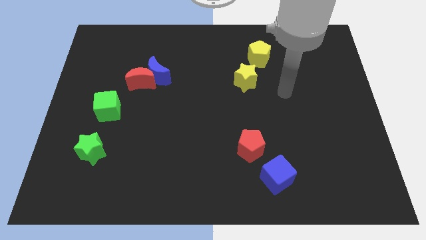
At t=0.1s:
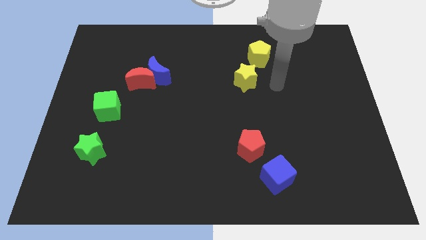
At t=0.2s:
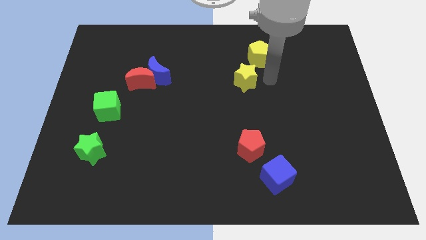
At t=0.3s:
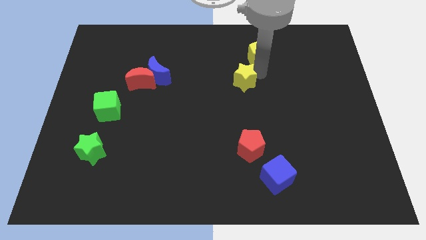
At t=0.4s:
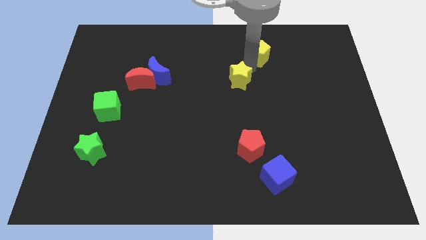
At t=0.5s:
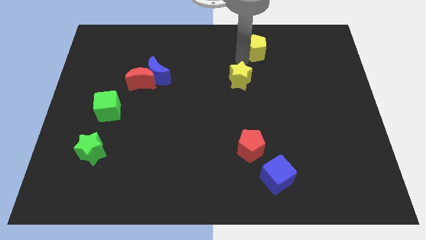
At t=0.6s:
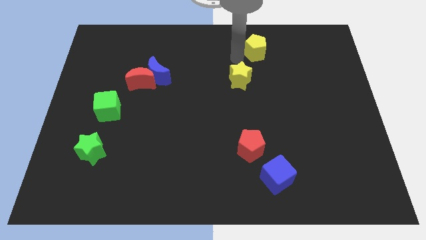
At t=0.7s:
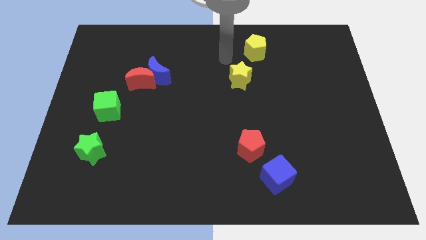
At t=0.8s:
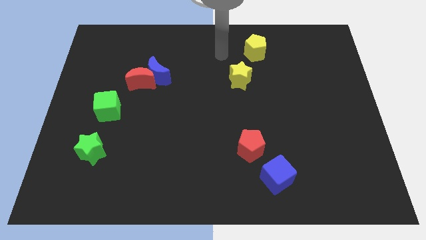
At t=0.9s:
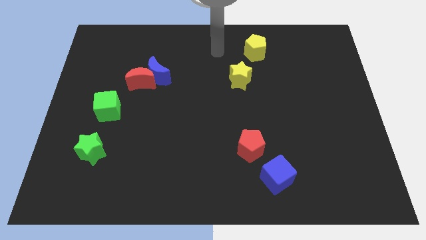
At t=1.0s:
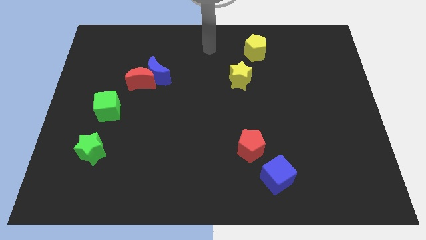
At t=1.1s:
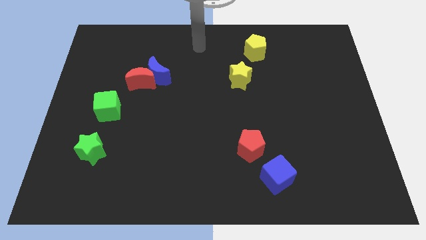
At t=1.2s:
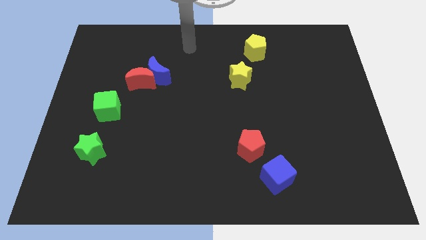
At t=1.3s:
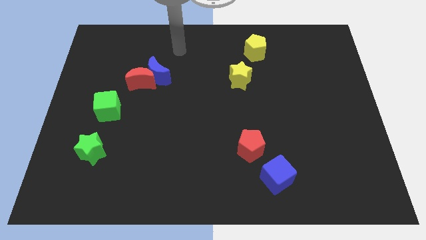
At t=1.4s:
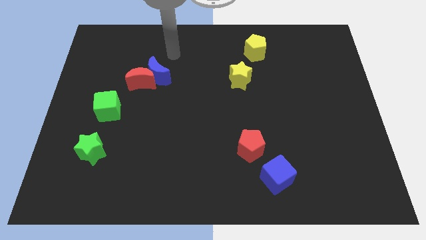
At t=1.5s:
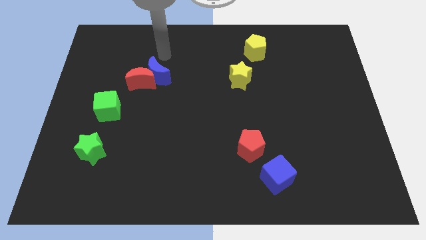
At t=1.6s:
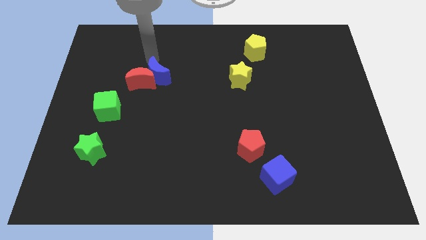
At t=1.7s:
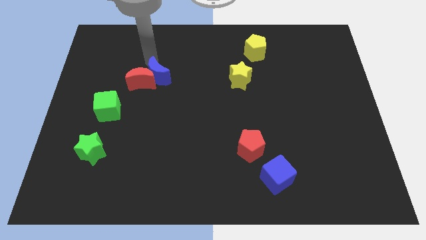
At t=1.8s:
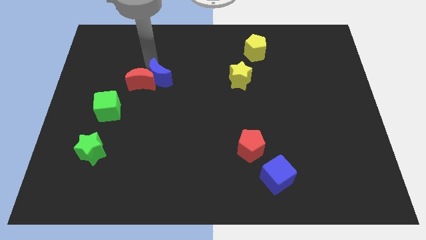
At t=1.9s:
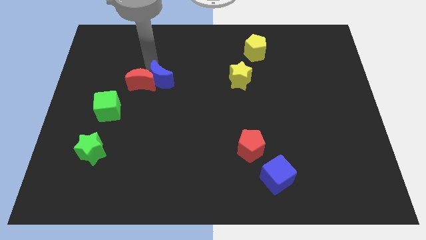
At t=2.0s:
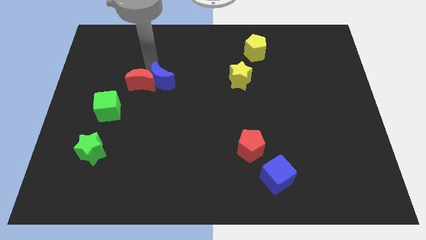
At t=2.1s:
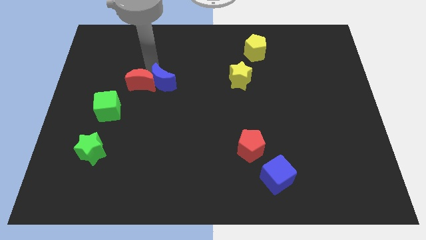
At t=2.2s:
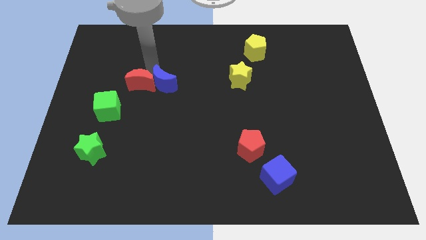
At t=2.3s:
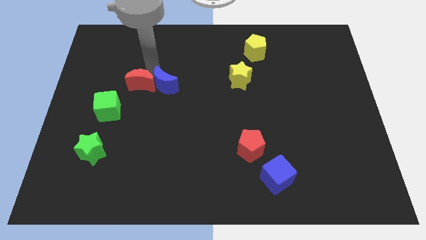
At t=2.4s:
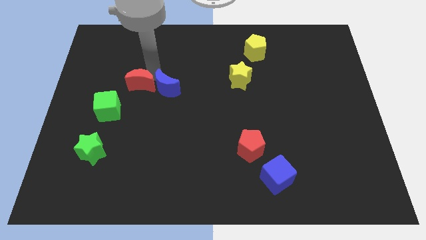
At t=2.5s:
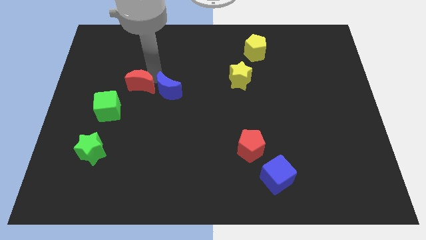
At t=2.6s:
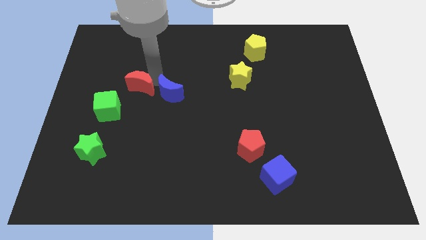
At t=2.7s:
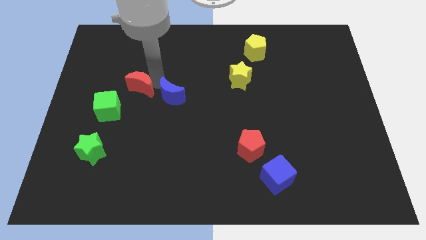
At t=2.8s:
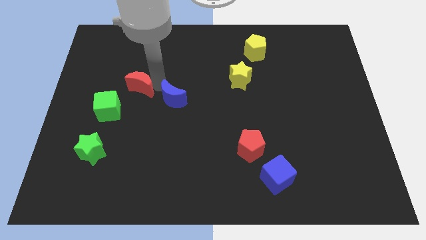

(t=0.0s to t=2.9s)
push the blue moon down a bit

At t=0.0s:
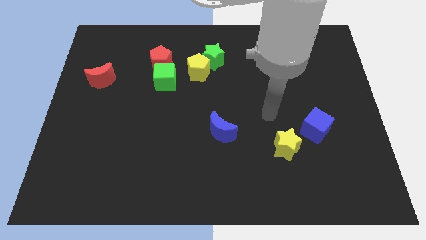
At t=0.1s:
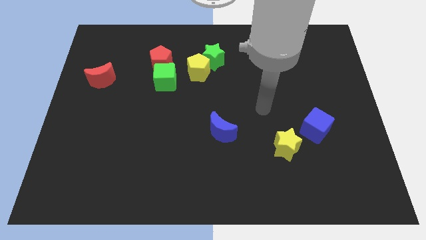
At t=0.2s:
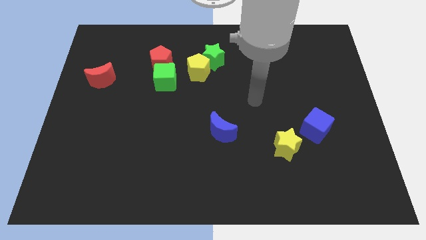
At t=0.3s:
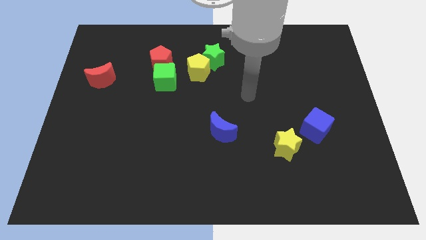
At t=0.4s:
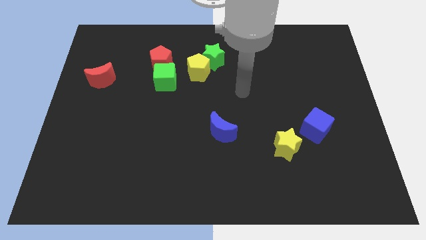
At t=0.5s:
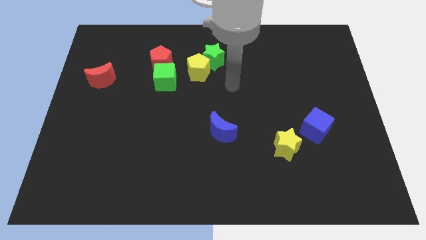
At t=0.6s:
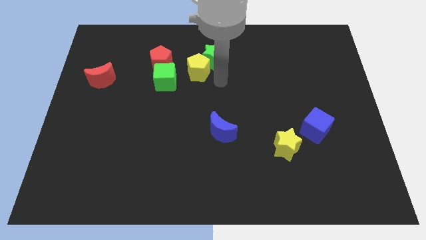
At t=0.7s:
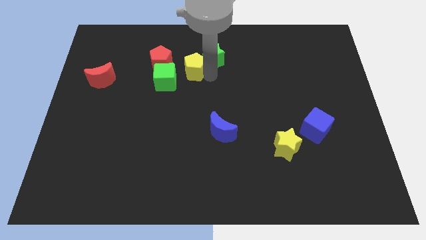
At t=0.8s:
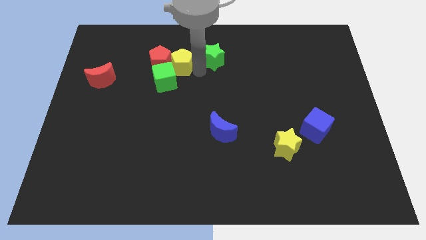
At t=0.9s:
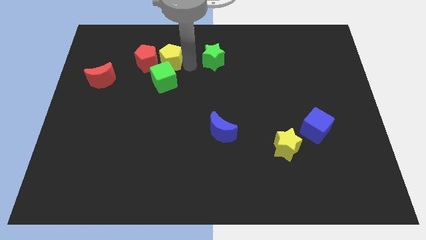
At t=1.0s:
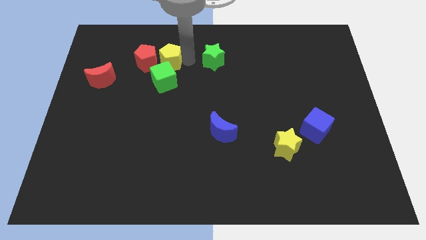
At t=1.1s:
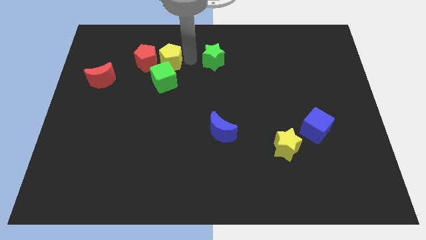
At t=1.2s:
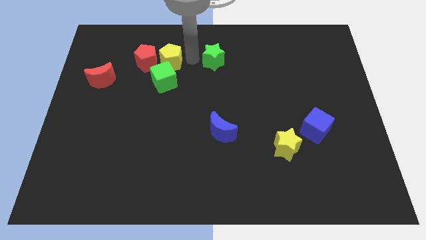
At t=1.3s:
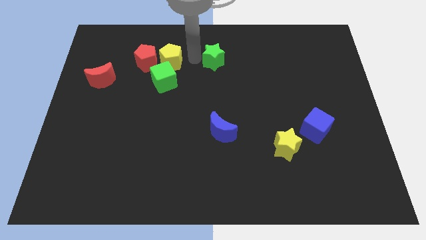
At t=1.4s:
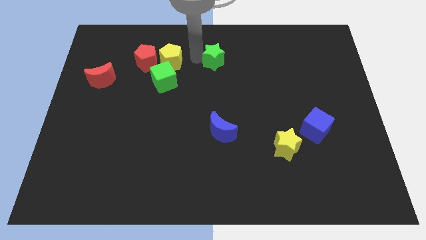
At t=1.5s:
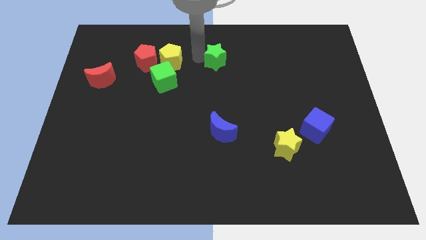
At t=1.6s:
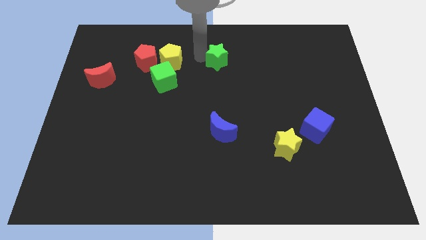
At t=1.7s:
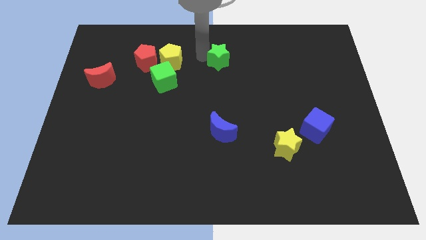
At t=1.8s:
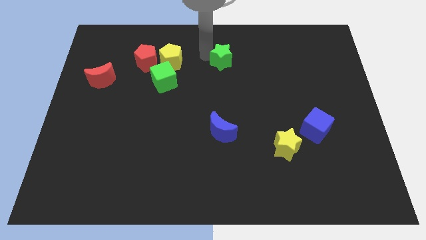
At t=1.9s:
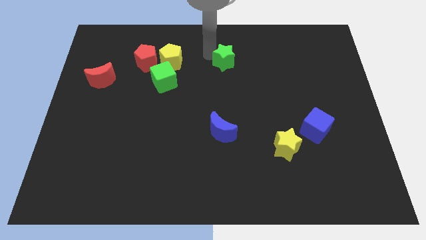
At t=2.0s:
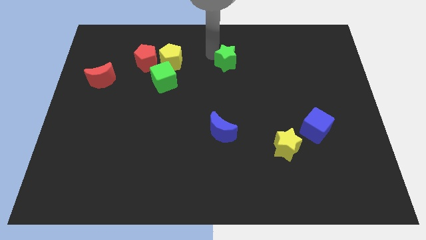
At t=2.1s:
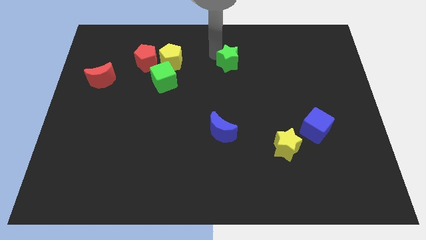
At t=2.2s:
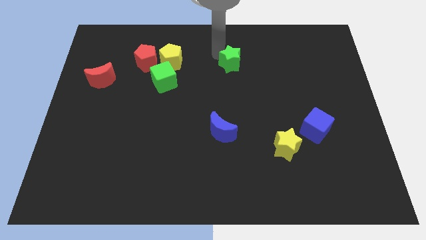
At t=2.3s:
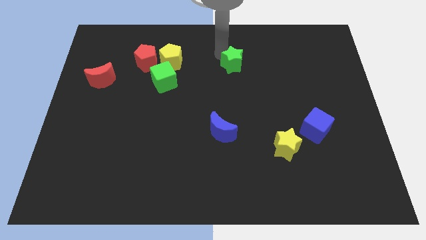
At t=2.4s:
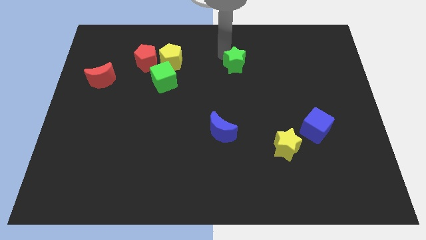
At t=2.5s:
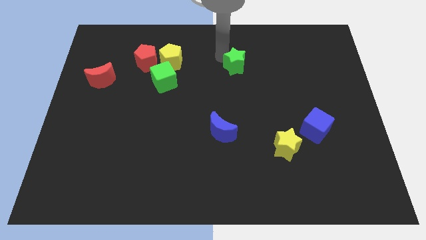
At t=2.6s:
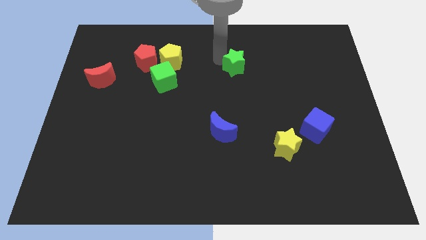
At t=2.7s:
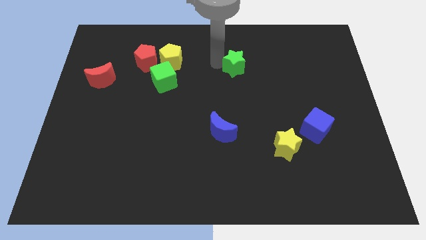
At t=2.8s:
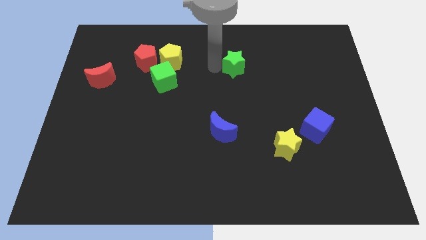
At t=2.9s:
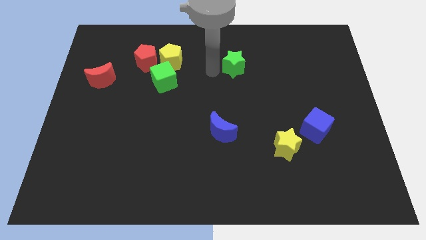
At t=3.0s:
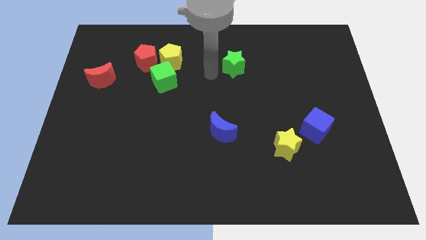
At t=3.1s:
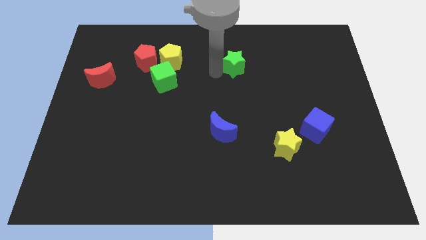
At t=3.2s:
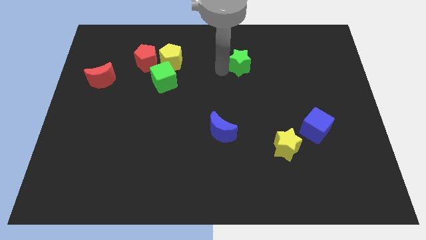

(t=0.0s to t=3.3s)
slightly slide the green star right

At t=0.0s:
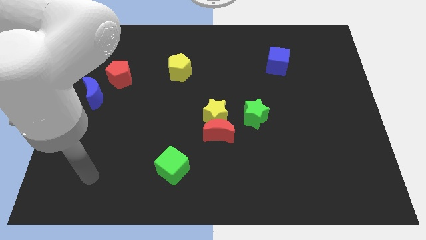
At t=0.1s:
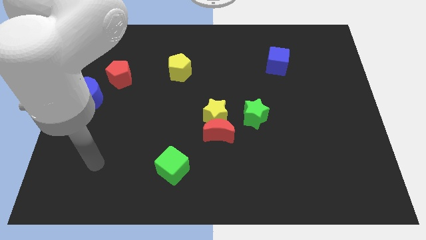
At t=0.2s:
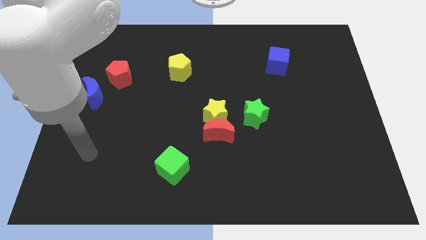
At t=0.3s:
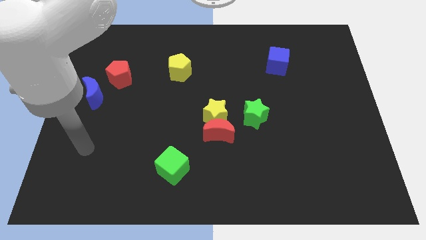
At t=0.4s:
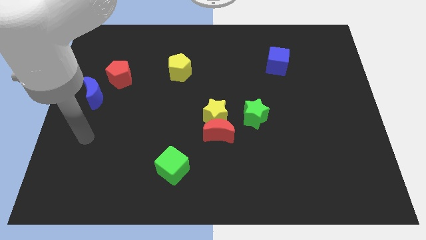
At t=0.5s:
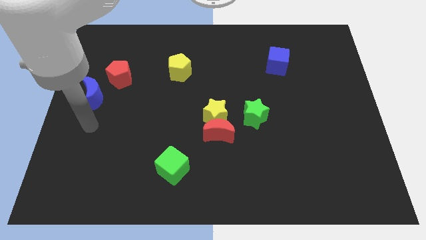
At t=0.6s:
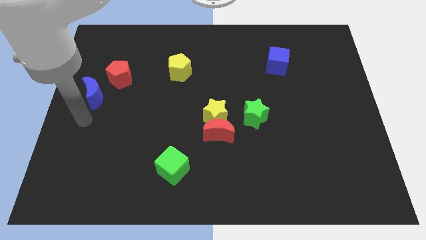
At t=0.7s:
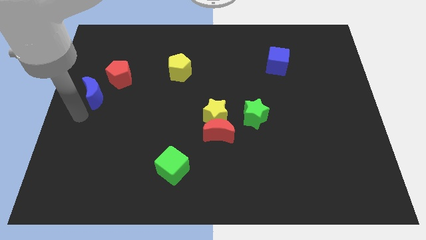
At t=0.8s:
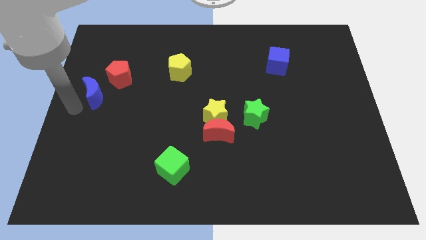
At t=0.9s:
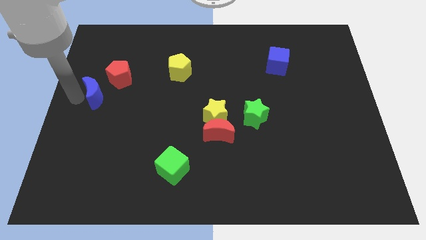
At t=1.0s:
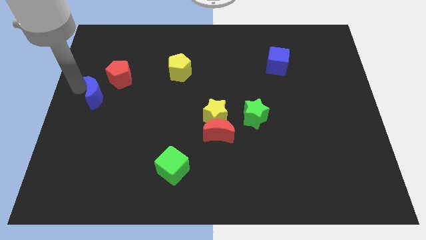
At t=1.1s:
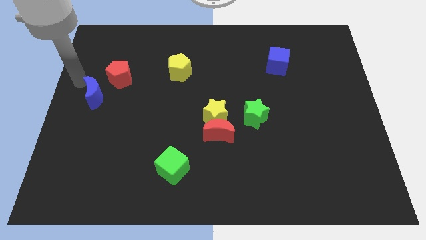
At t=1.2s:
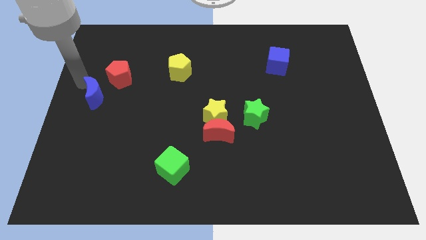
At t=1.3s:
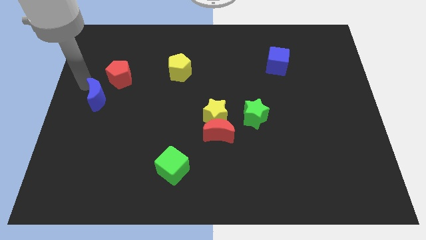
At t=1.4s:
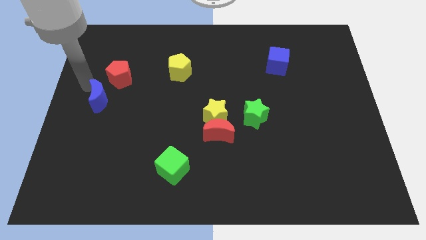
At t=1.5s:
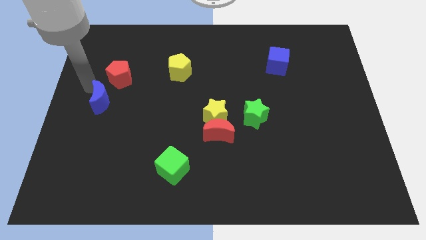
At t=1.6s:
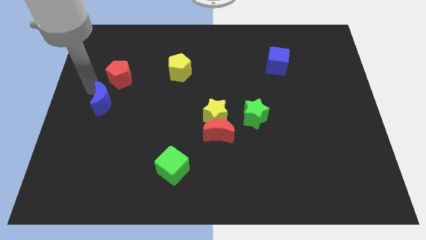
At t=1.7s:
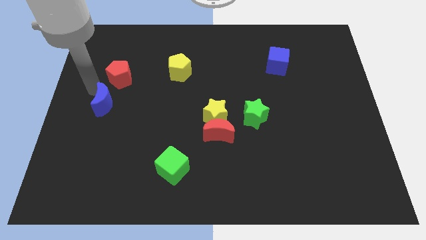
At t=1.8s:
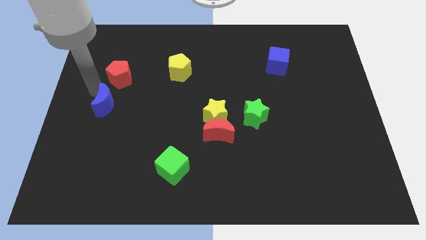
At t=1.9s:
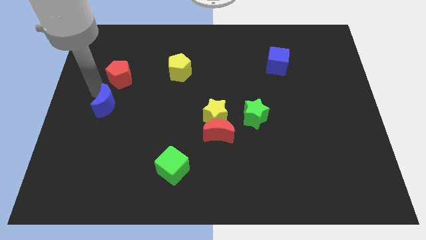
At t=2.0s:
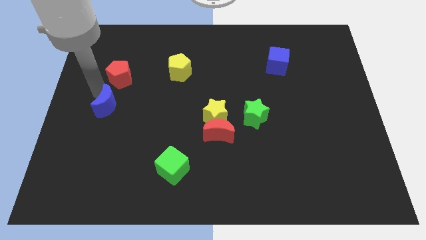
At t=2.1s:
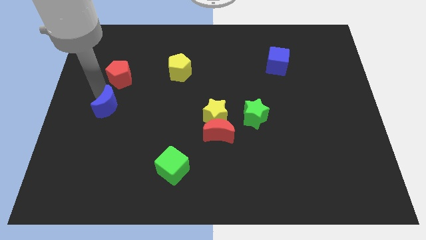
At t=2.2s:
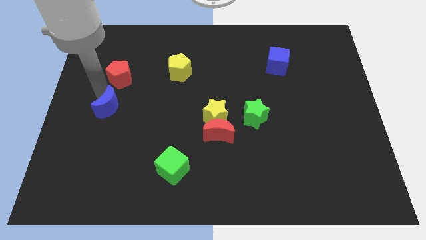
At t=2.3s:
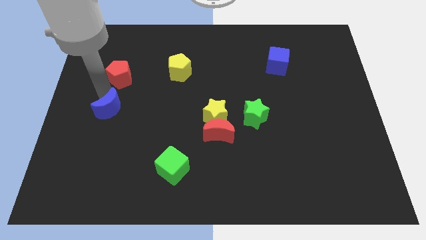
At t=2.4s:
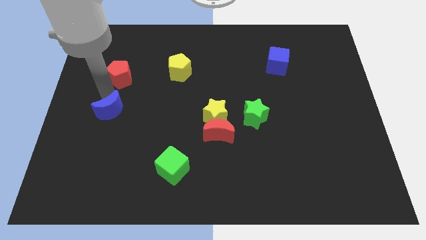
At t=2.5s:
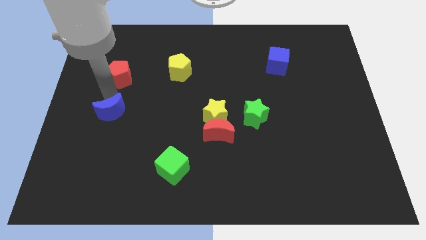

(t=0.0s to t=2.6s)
move the blue moon a bit down and to the right diagonally
